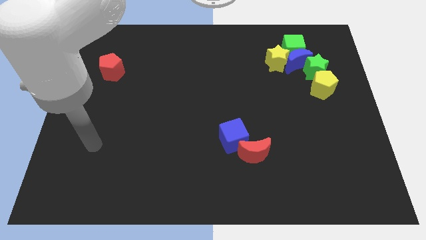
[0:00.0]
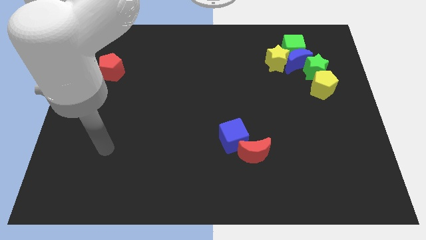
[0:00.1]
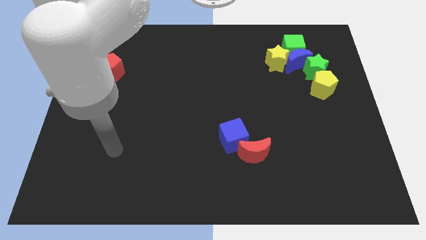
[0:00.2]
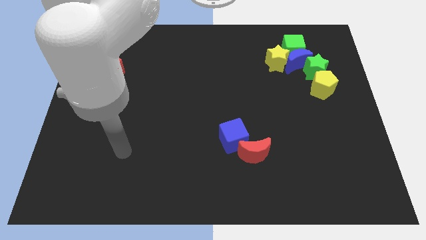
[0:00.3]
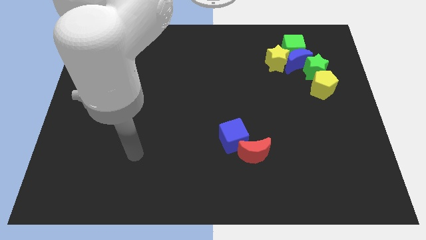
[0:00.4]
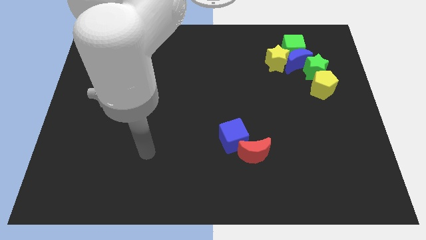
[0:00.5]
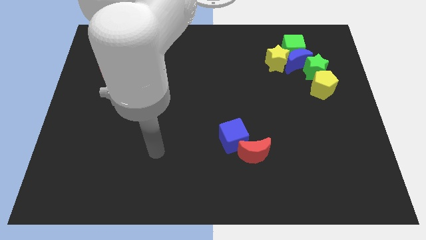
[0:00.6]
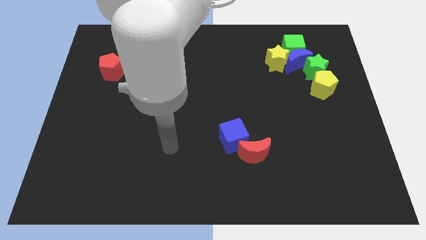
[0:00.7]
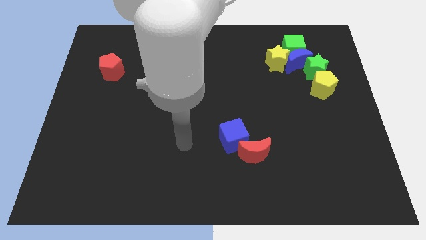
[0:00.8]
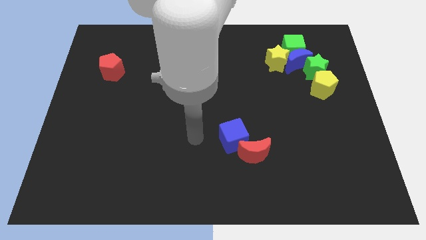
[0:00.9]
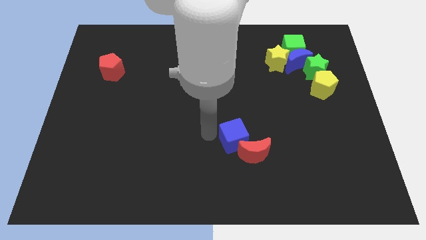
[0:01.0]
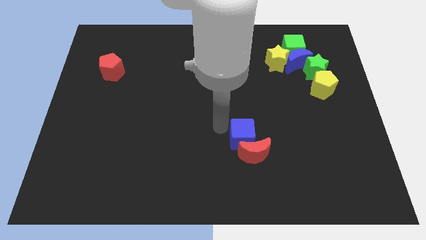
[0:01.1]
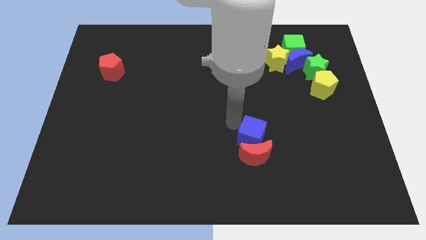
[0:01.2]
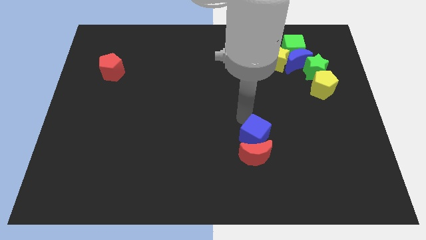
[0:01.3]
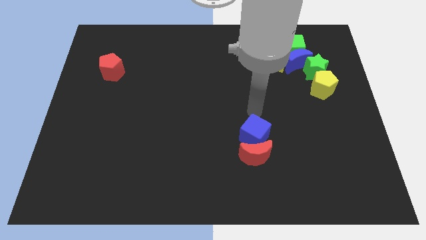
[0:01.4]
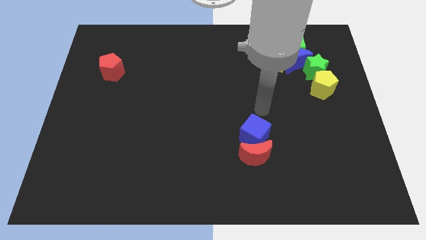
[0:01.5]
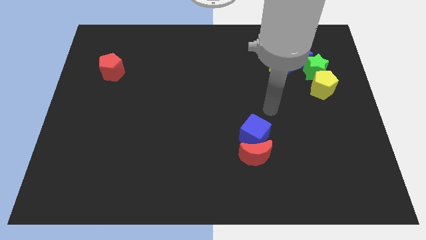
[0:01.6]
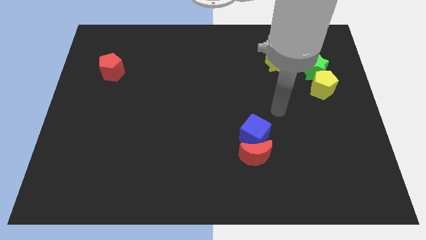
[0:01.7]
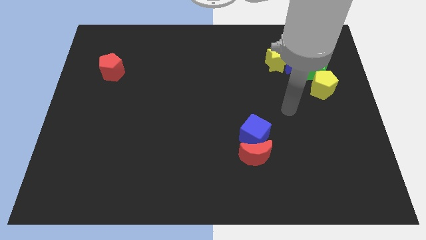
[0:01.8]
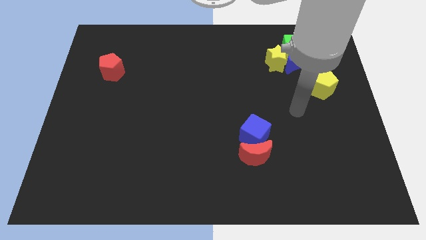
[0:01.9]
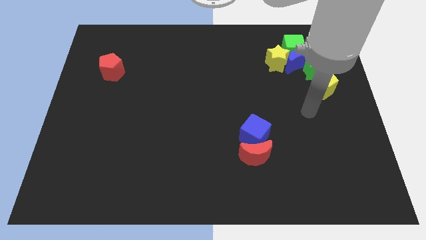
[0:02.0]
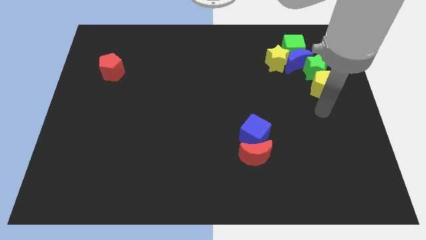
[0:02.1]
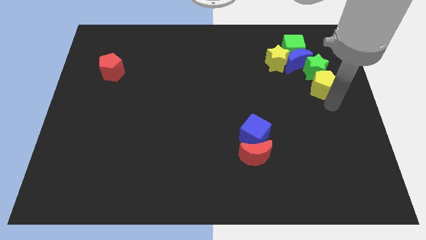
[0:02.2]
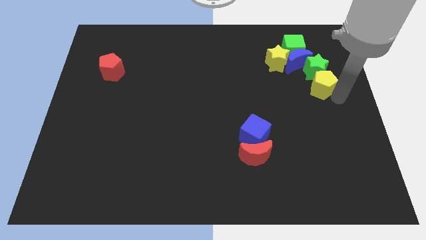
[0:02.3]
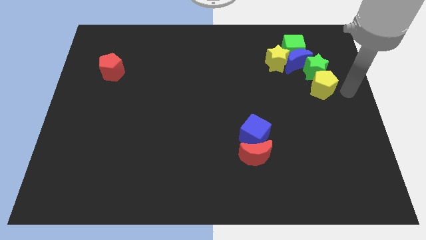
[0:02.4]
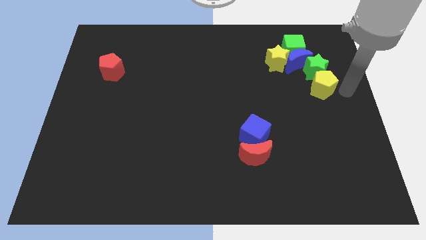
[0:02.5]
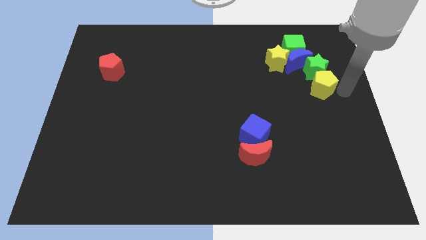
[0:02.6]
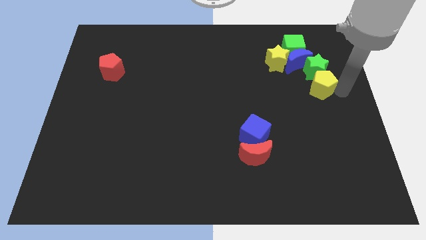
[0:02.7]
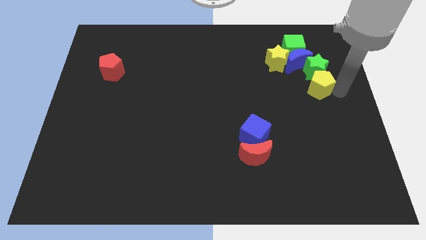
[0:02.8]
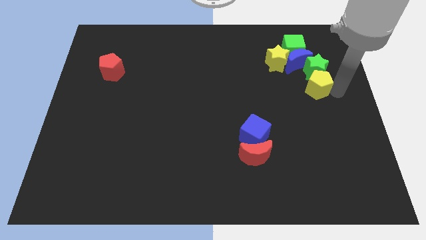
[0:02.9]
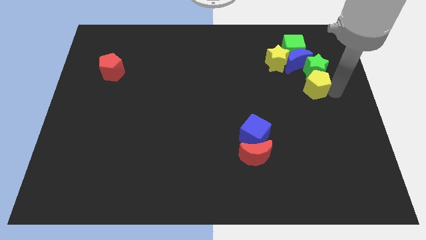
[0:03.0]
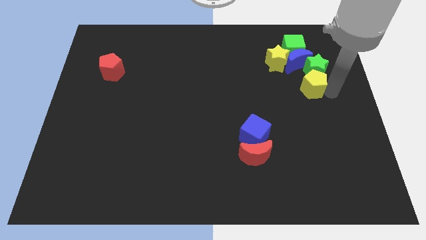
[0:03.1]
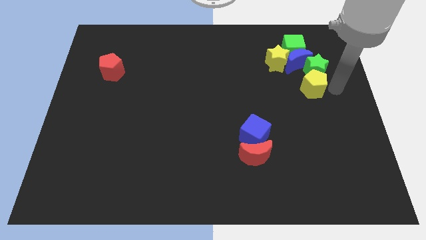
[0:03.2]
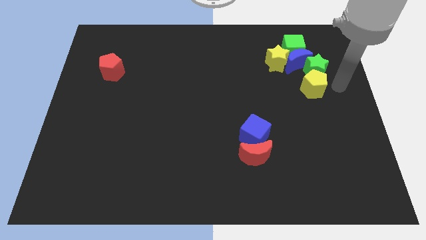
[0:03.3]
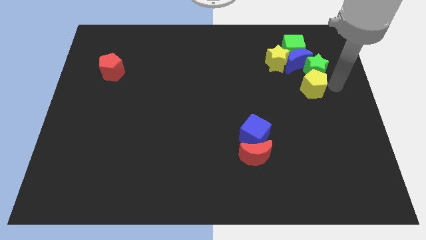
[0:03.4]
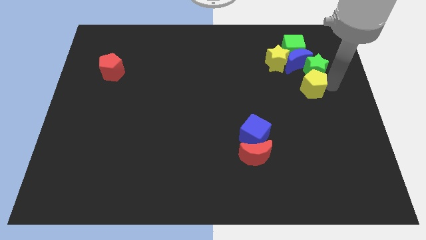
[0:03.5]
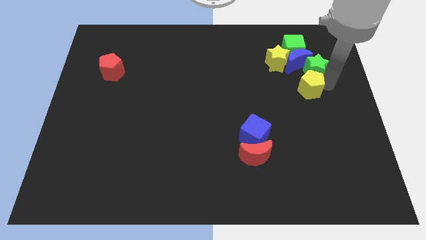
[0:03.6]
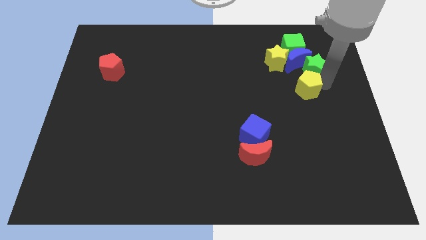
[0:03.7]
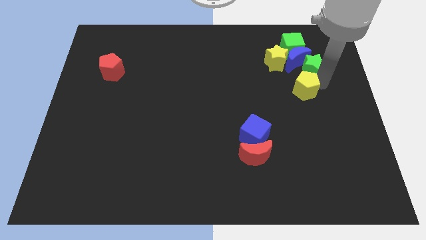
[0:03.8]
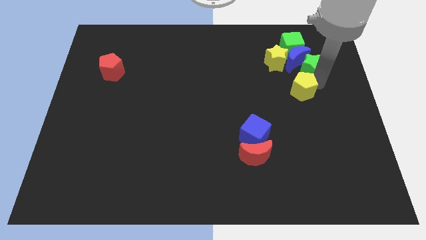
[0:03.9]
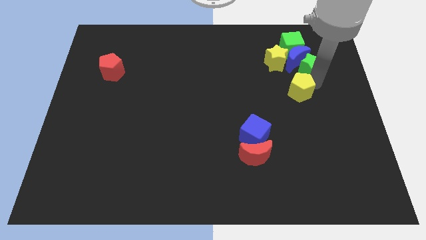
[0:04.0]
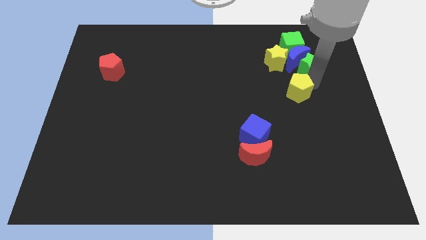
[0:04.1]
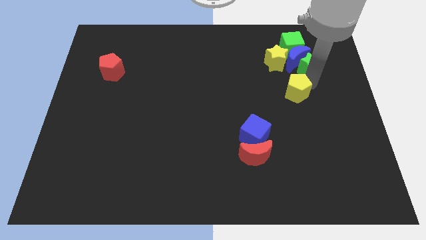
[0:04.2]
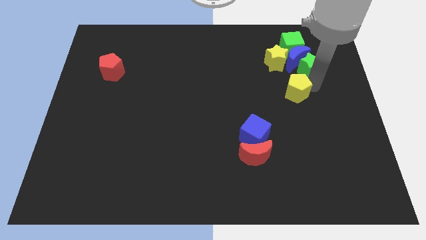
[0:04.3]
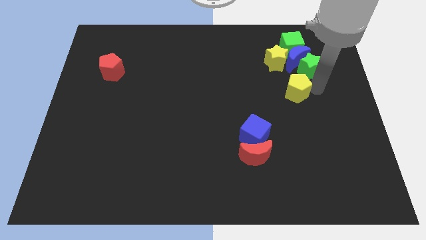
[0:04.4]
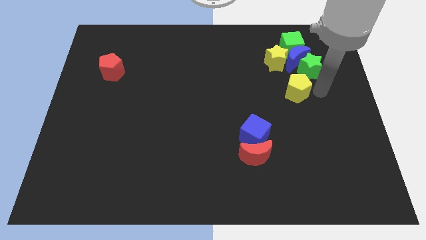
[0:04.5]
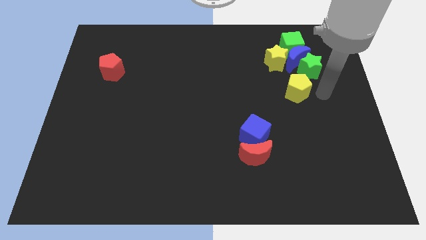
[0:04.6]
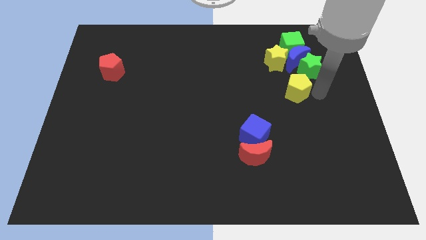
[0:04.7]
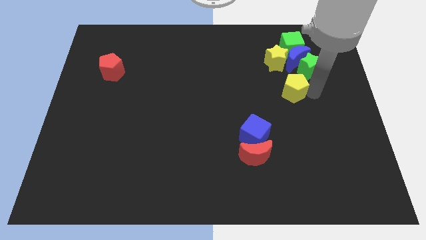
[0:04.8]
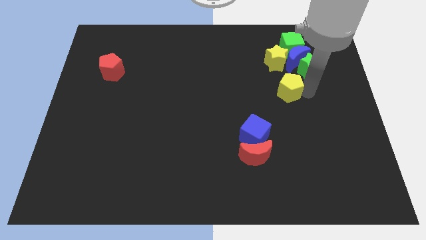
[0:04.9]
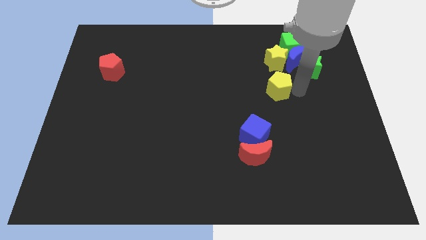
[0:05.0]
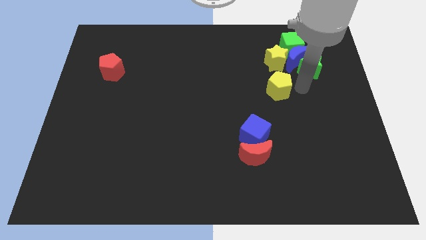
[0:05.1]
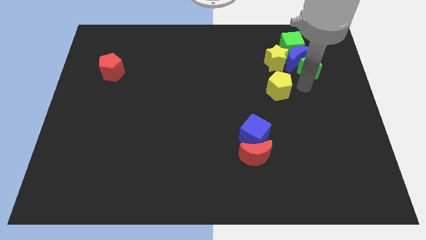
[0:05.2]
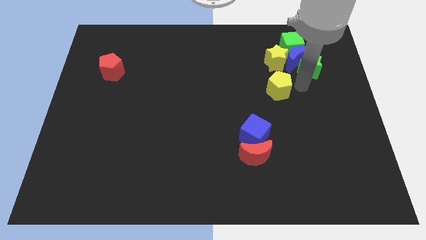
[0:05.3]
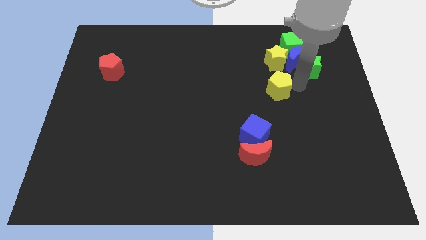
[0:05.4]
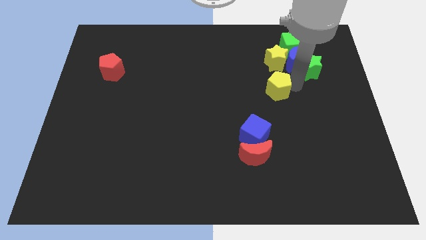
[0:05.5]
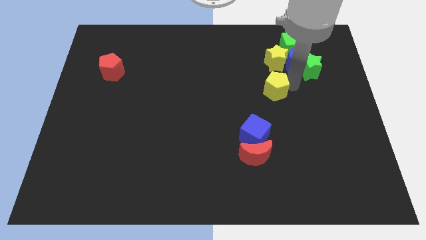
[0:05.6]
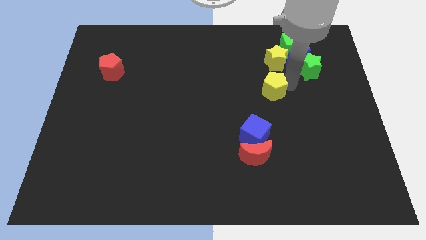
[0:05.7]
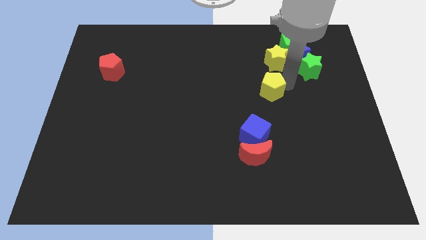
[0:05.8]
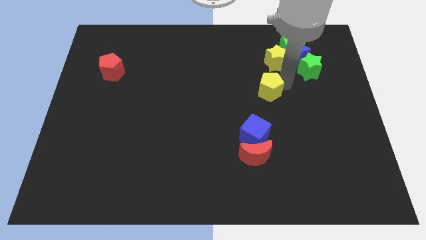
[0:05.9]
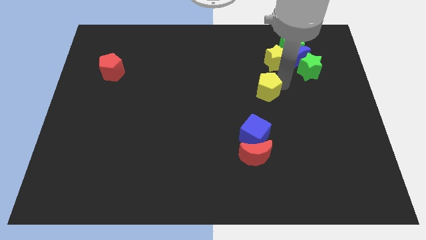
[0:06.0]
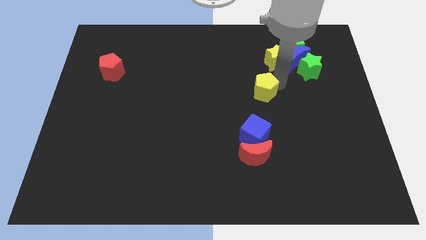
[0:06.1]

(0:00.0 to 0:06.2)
put the yellow pentagon to the center of the board
